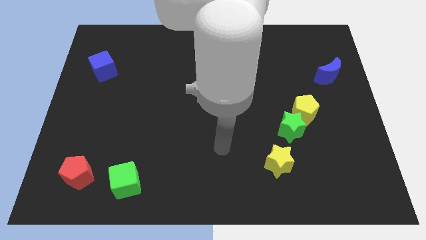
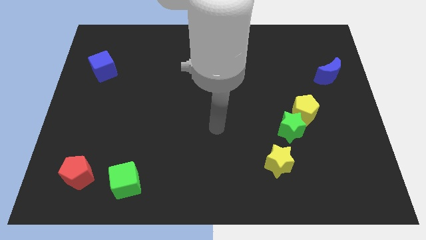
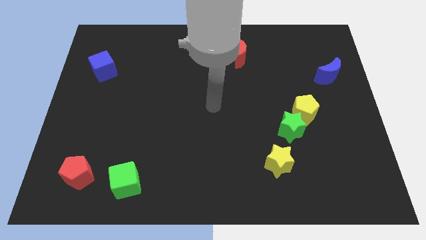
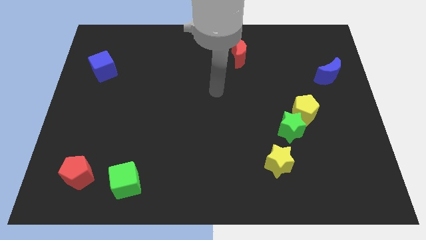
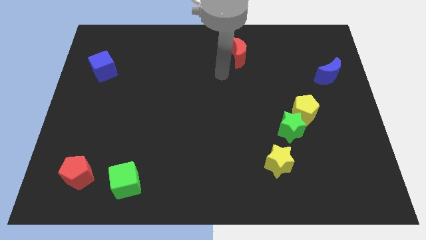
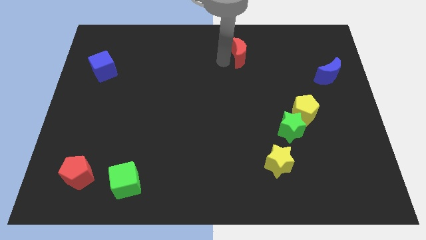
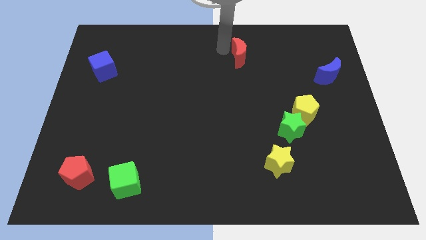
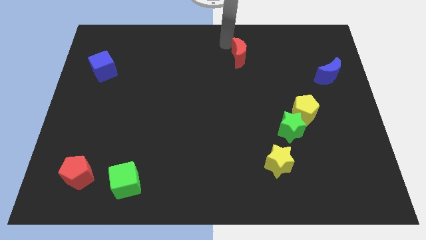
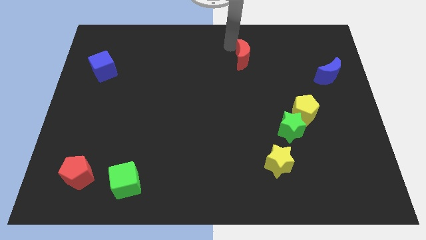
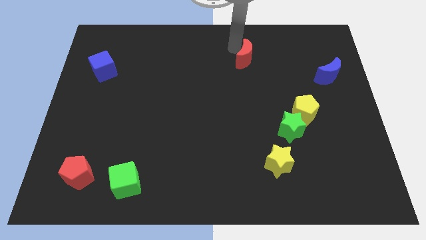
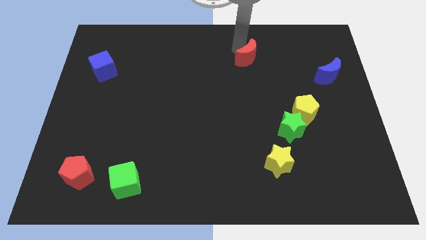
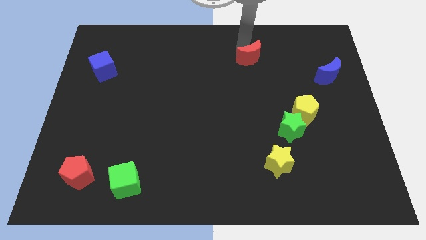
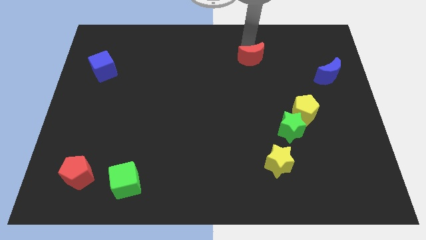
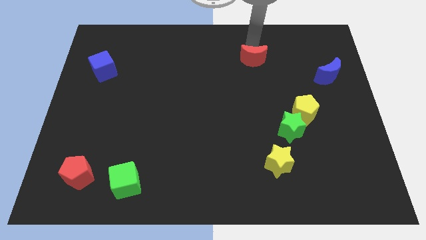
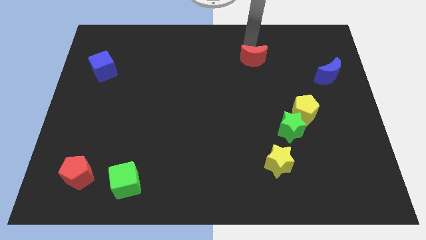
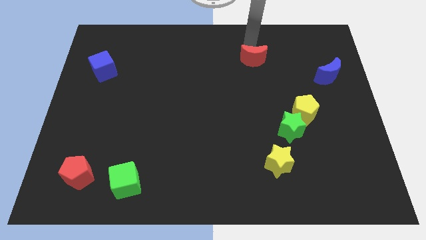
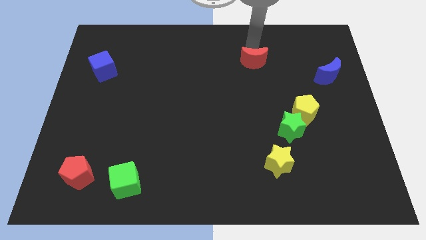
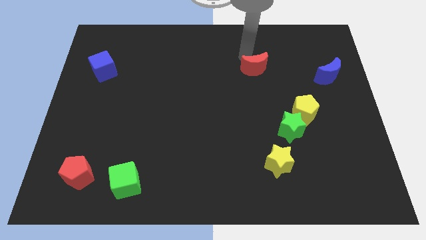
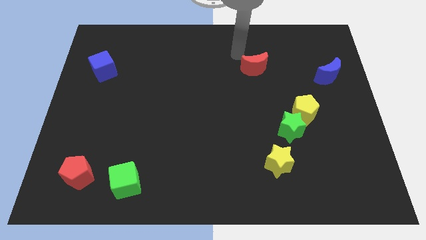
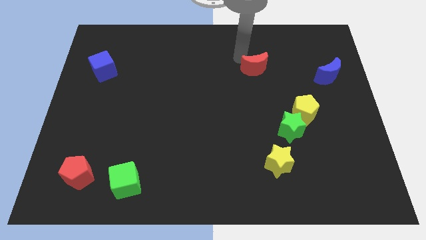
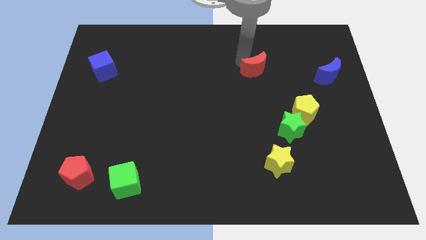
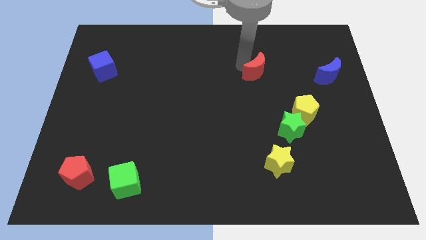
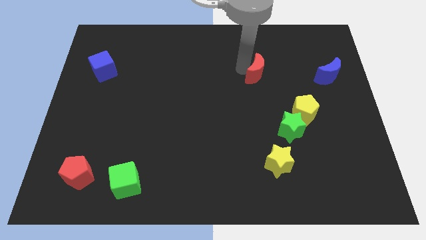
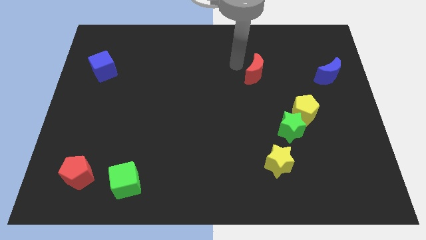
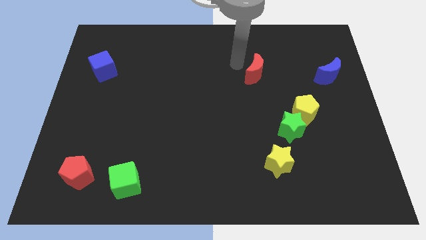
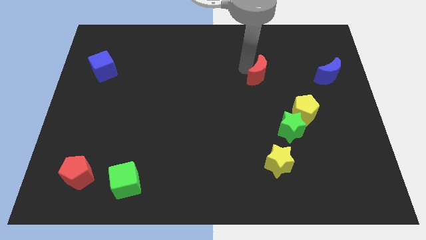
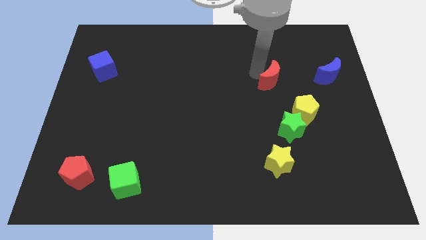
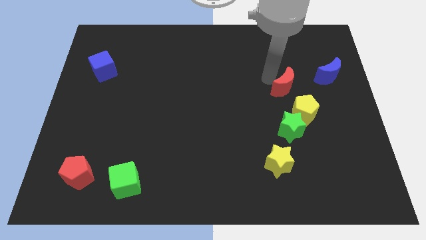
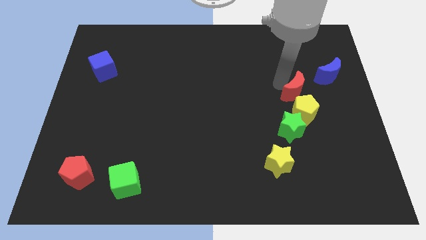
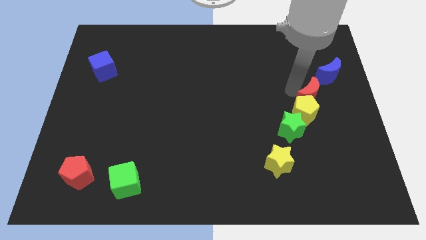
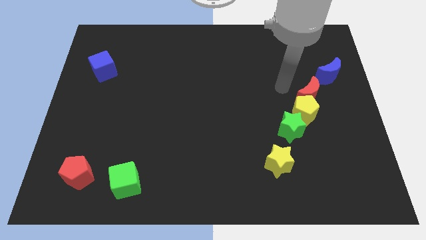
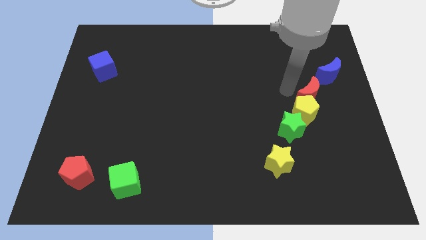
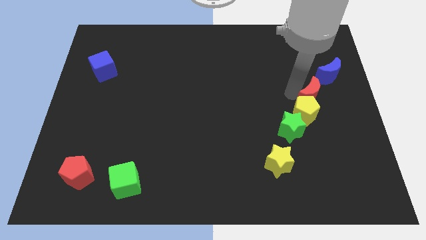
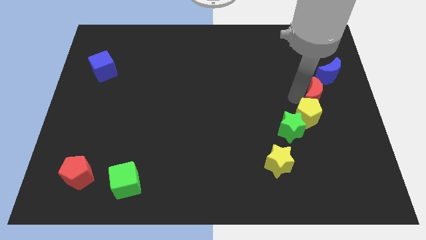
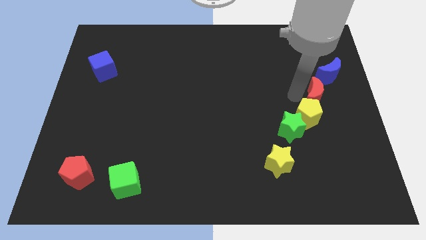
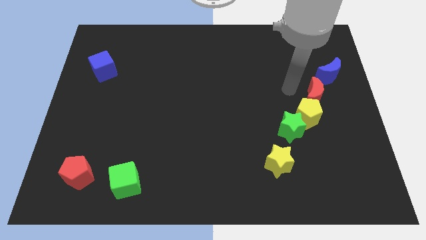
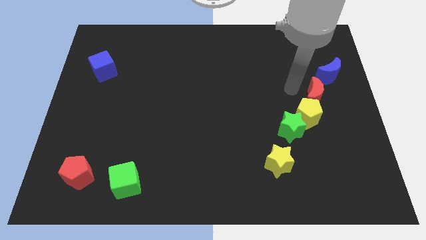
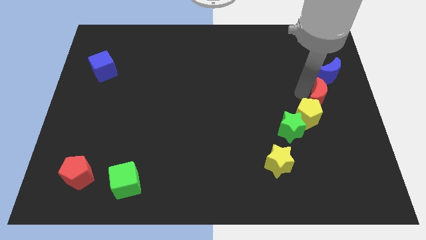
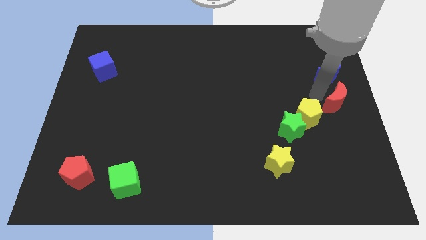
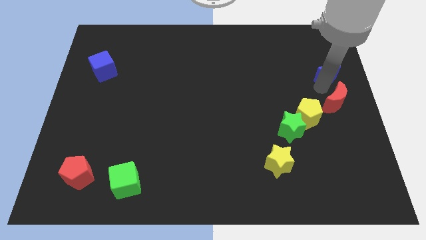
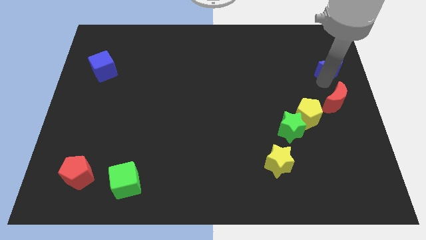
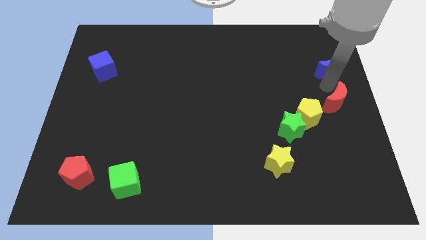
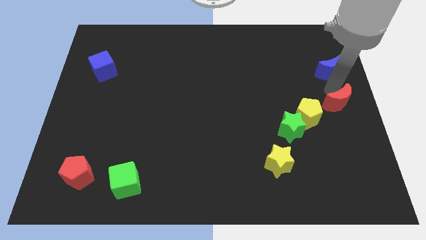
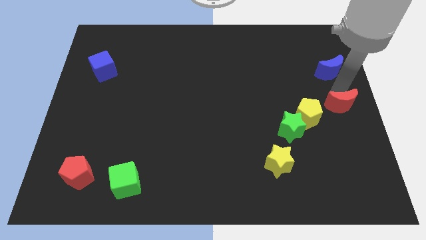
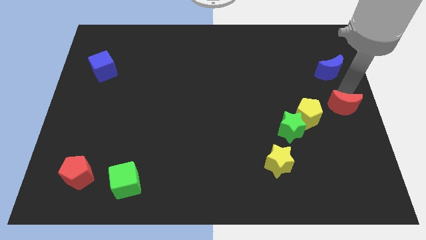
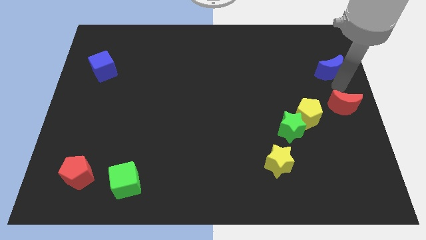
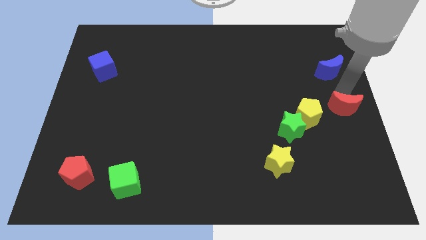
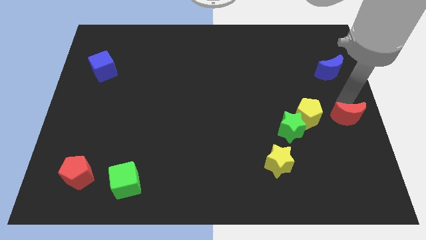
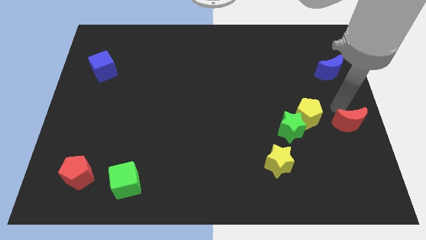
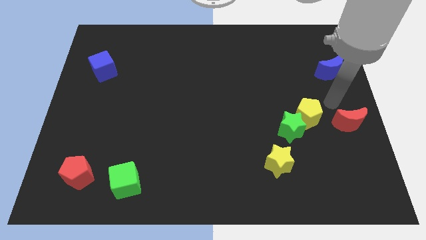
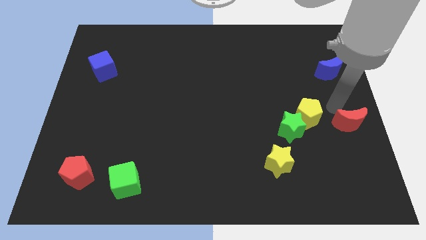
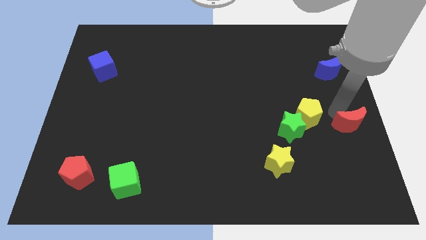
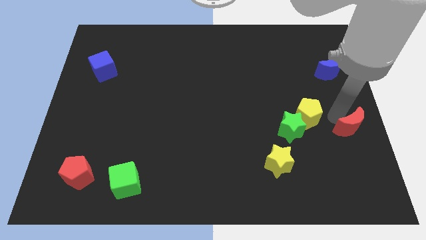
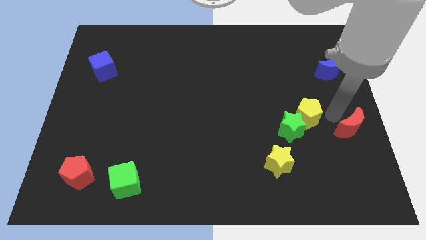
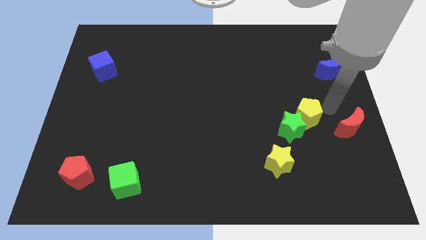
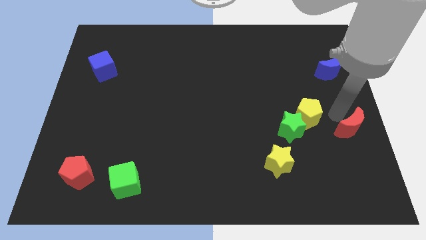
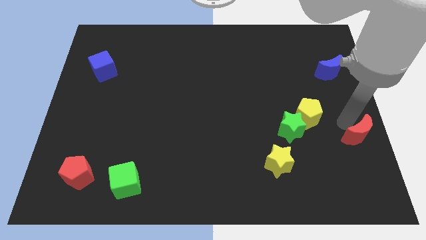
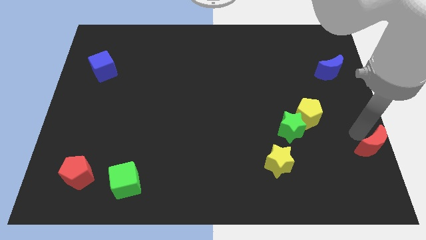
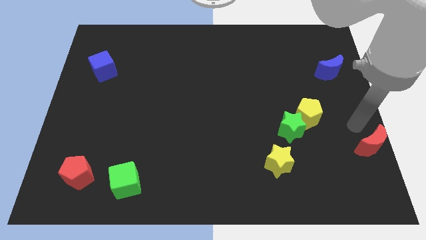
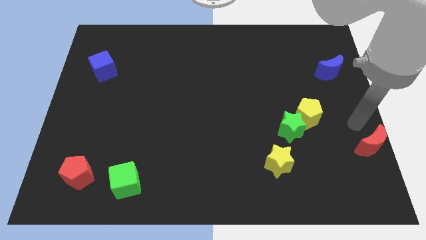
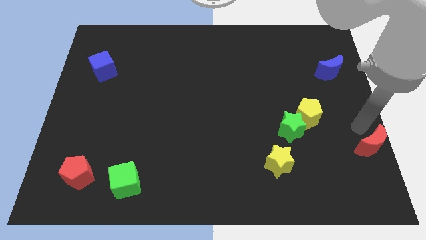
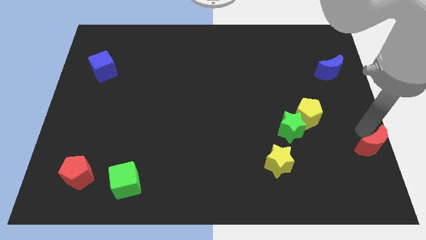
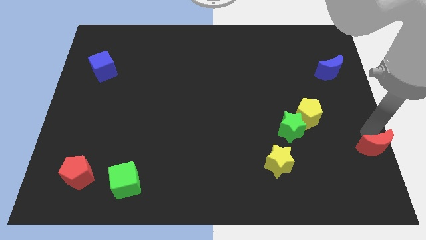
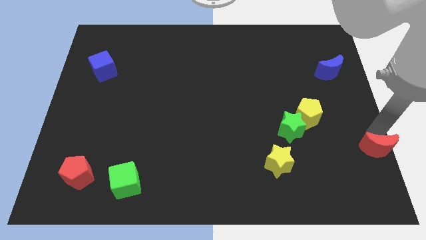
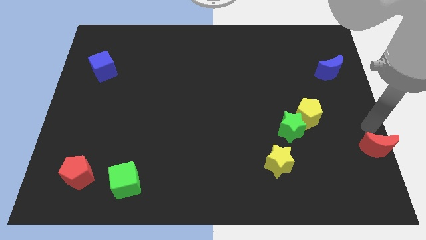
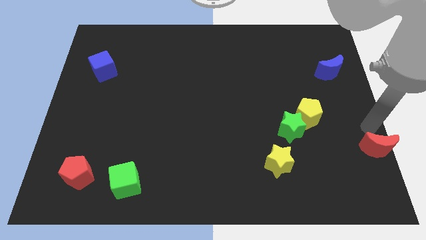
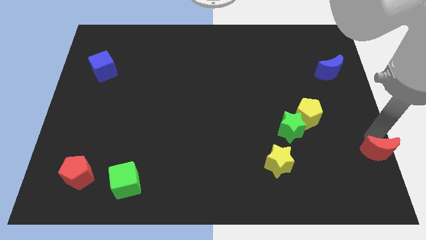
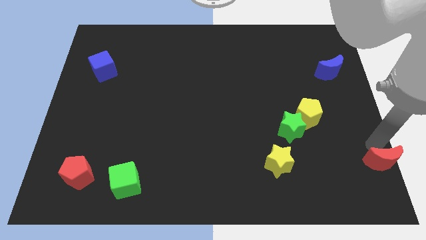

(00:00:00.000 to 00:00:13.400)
put the red moon to the bottom right corner

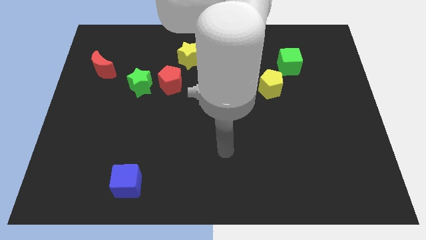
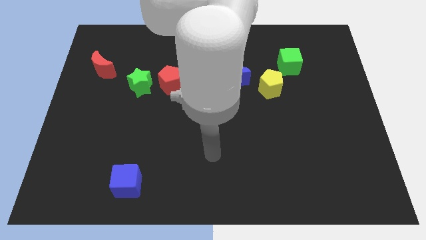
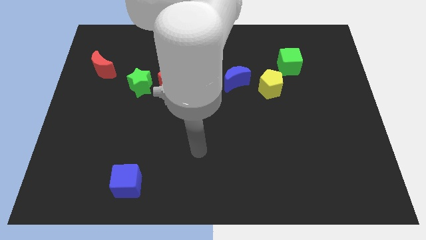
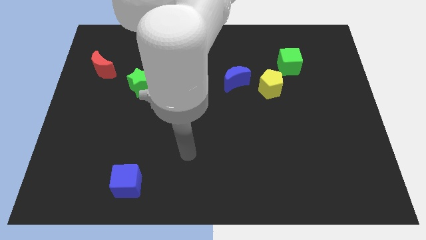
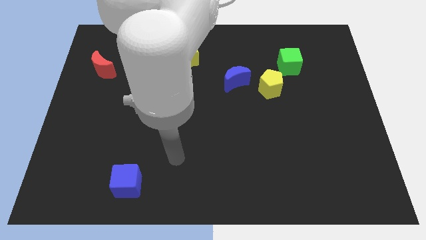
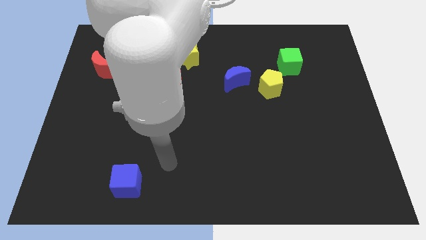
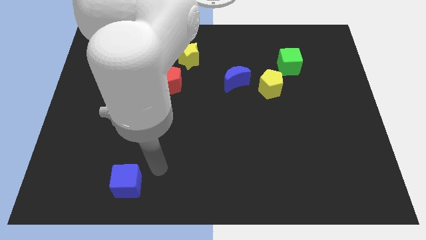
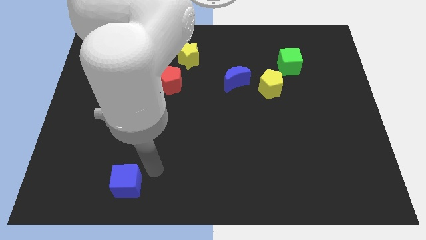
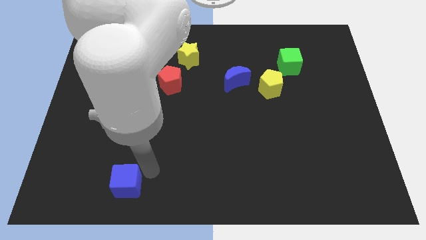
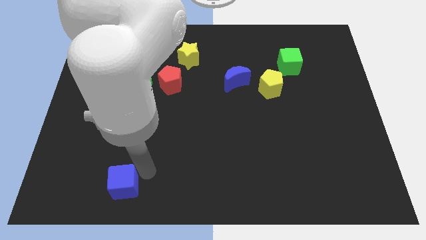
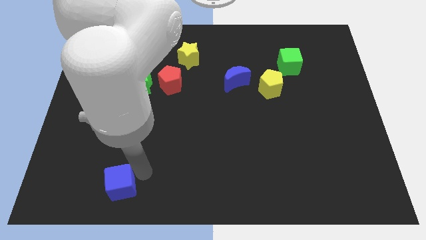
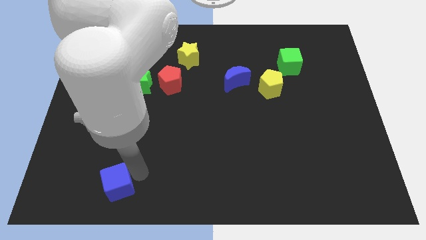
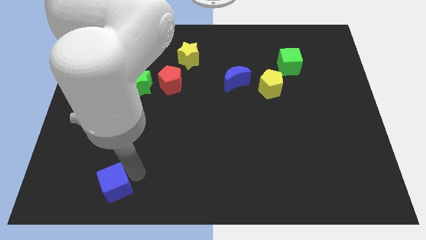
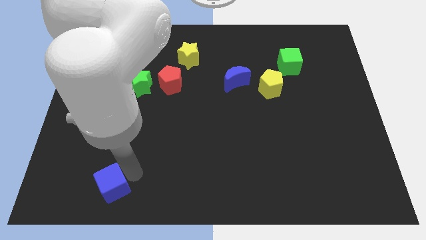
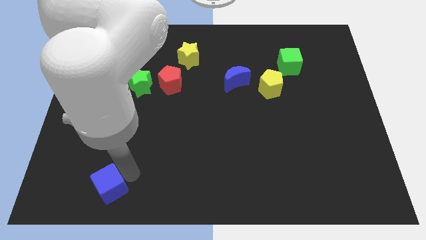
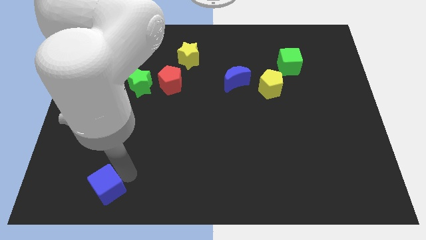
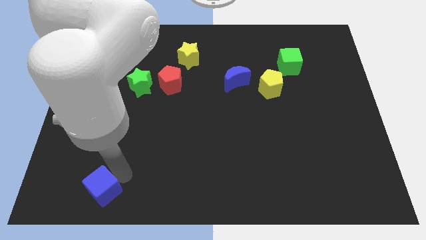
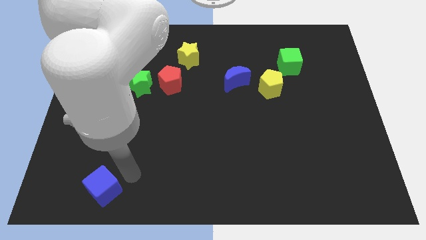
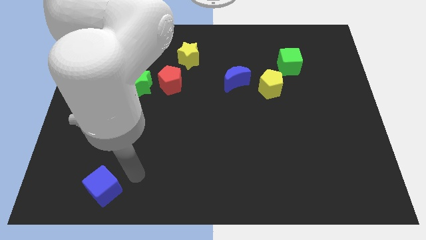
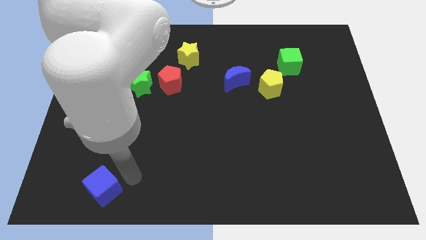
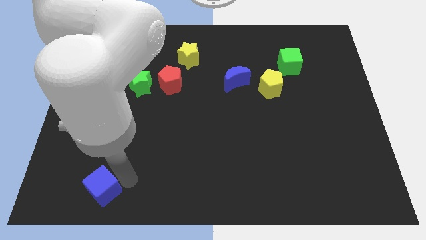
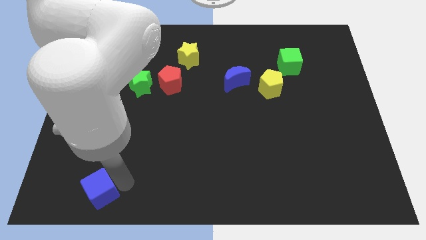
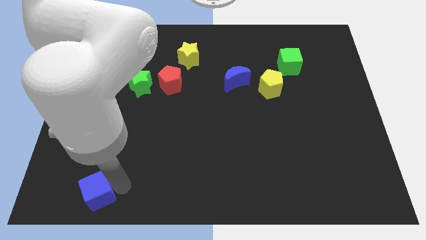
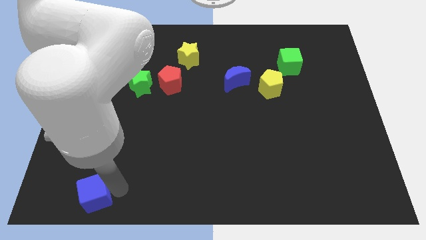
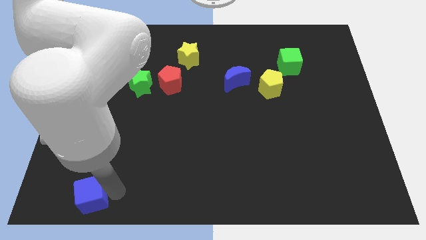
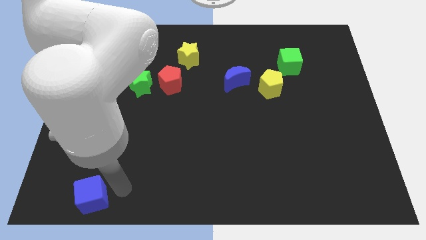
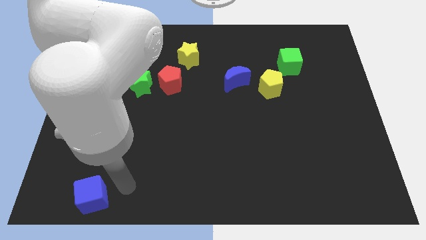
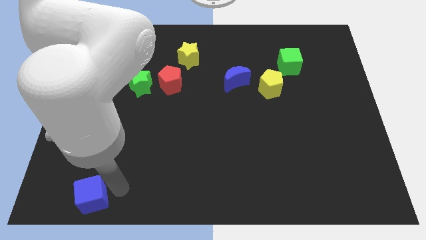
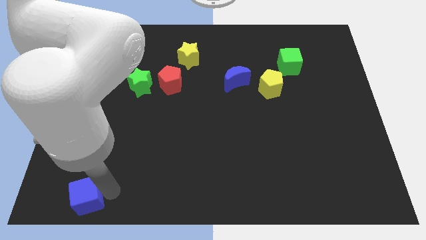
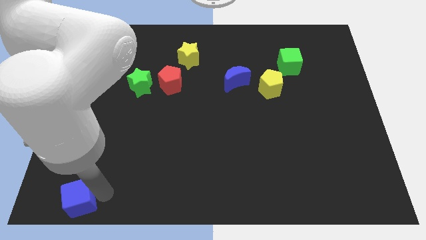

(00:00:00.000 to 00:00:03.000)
put the blue cube to the bottom left of the board
